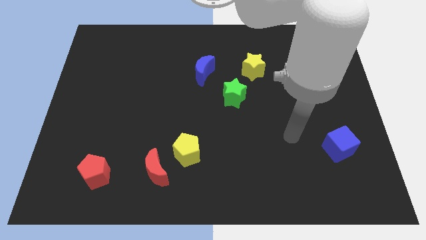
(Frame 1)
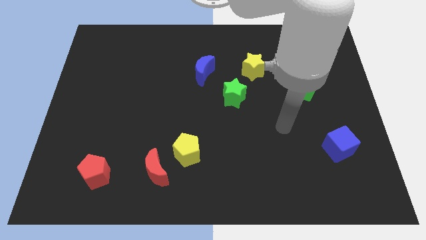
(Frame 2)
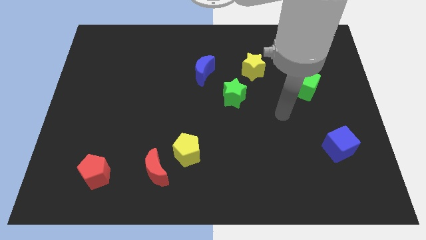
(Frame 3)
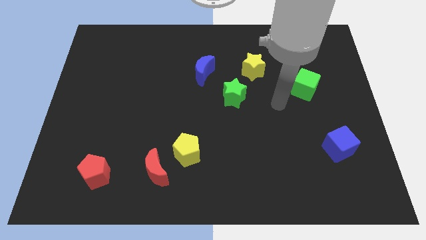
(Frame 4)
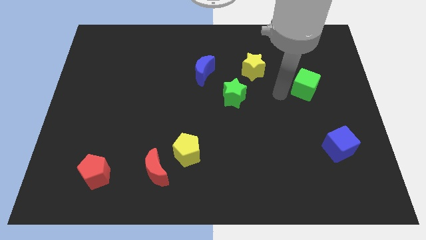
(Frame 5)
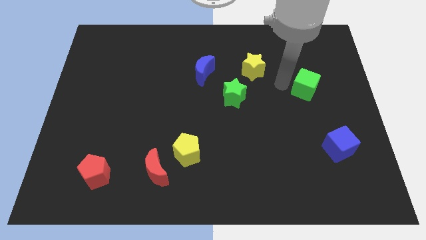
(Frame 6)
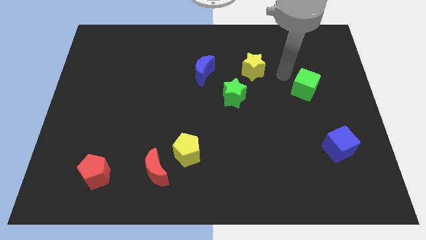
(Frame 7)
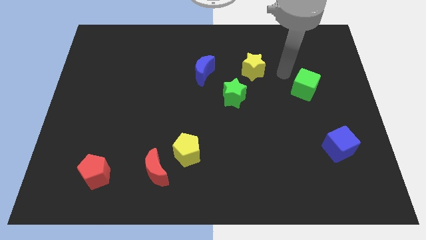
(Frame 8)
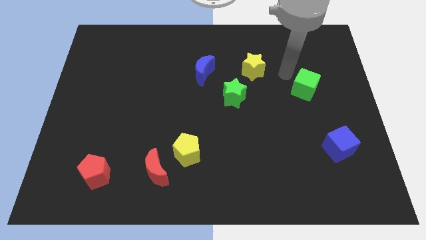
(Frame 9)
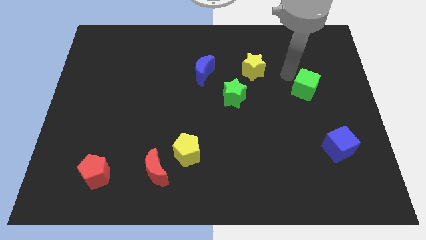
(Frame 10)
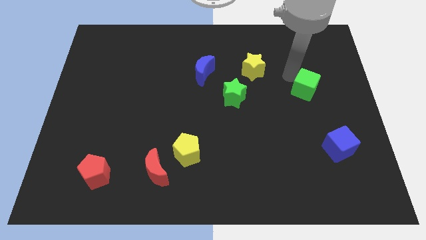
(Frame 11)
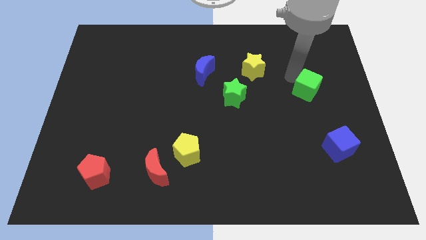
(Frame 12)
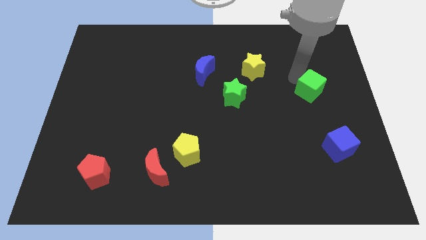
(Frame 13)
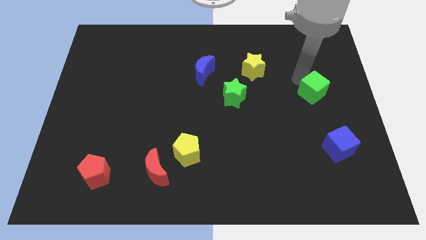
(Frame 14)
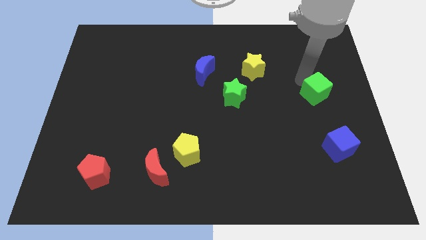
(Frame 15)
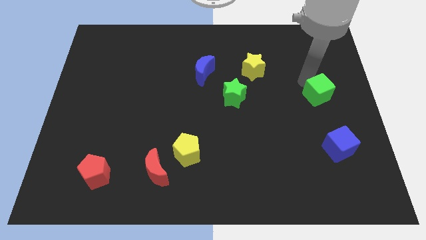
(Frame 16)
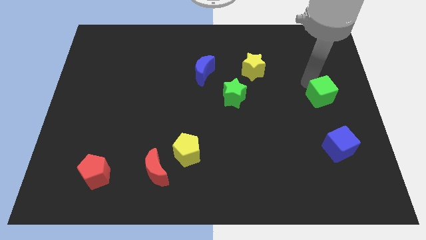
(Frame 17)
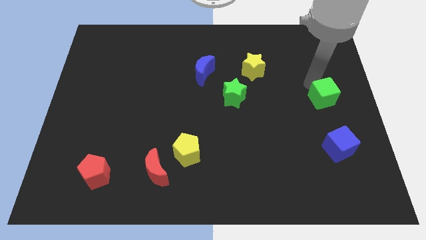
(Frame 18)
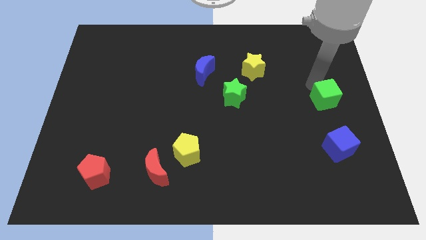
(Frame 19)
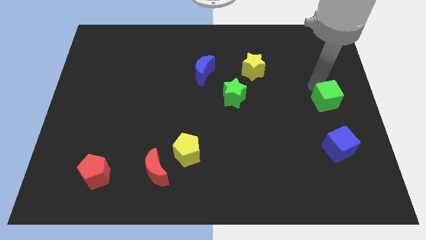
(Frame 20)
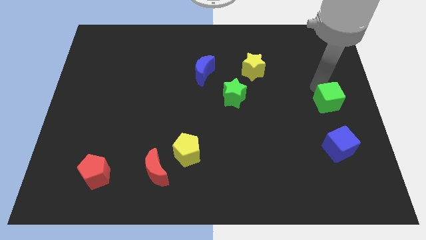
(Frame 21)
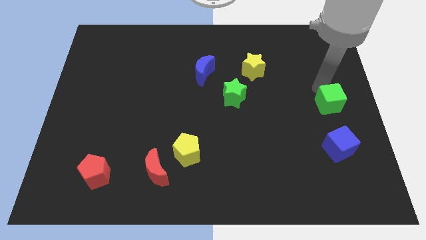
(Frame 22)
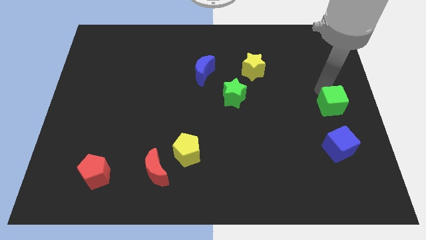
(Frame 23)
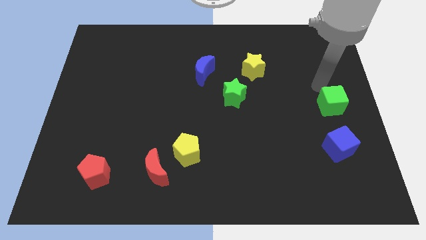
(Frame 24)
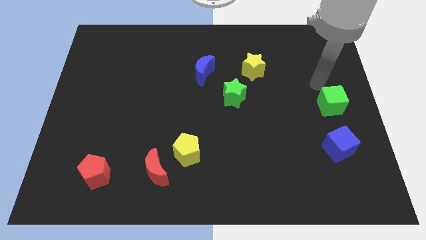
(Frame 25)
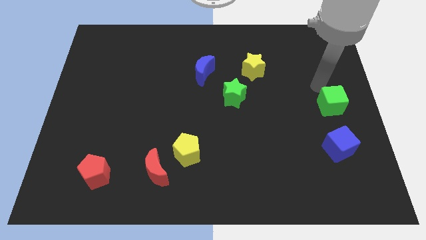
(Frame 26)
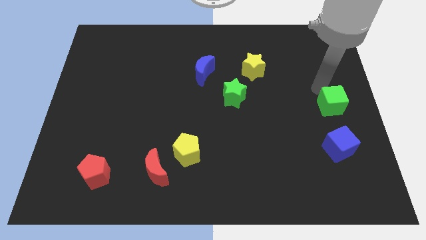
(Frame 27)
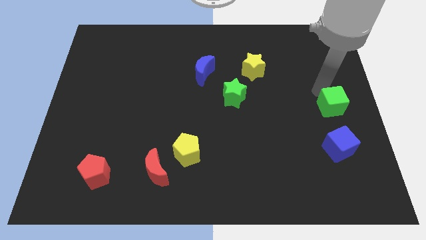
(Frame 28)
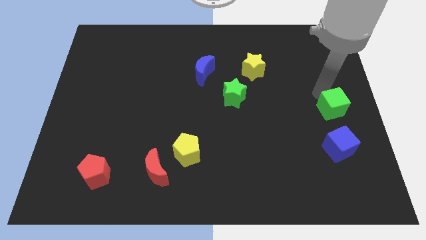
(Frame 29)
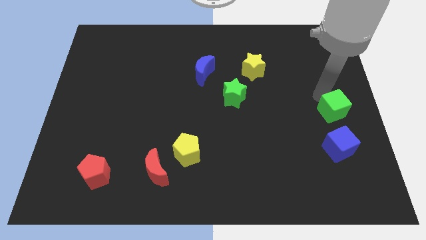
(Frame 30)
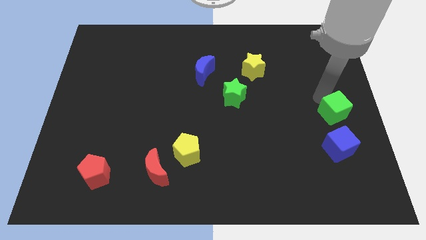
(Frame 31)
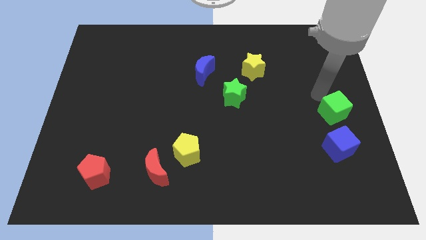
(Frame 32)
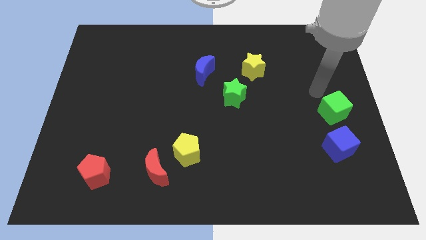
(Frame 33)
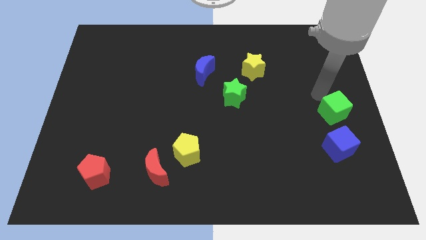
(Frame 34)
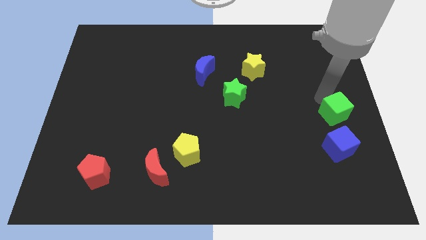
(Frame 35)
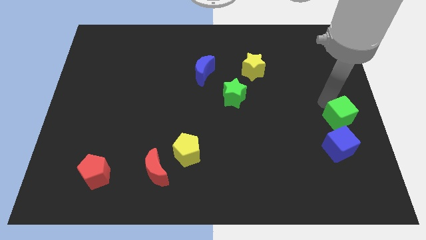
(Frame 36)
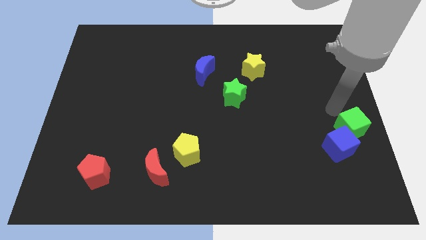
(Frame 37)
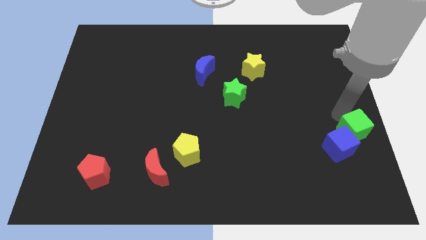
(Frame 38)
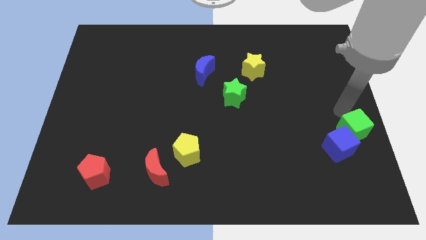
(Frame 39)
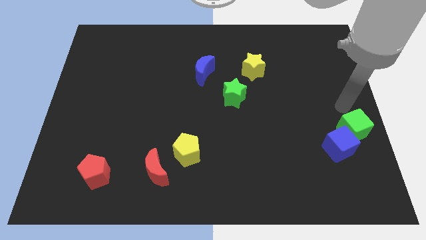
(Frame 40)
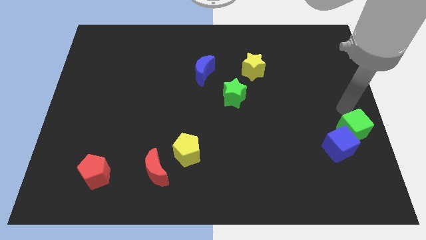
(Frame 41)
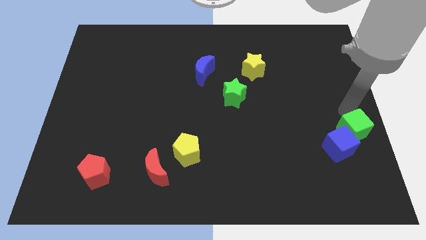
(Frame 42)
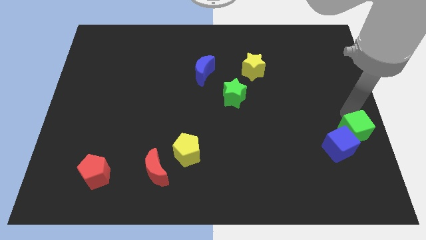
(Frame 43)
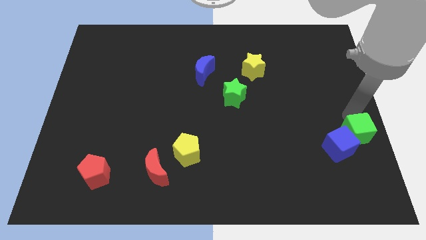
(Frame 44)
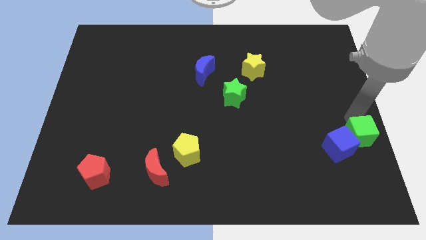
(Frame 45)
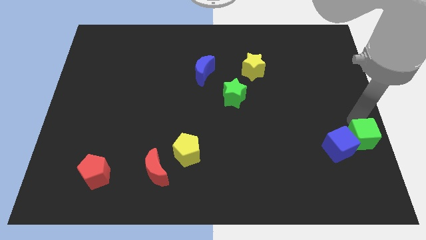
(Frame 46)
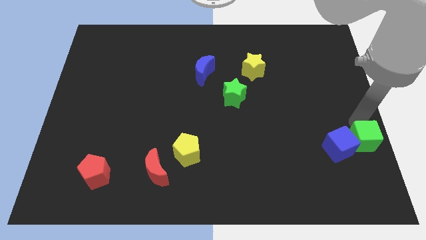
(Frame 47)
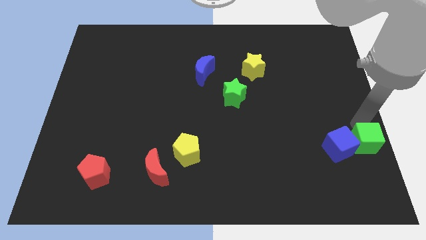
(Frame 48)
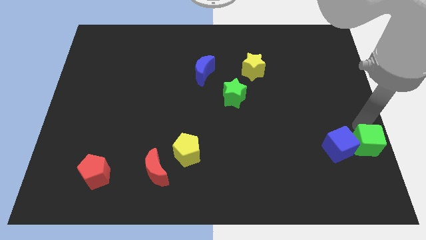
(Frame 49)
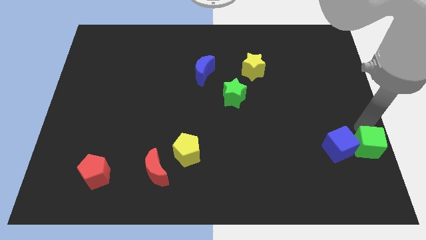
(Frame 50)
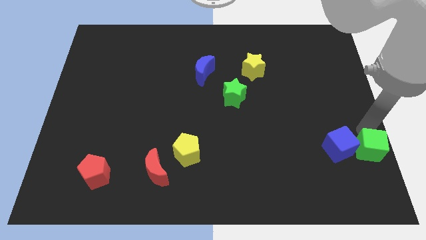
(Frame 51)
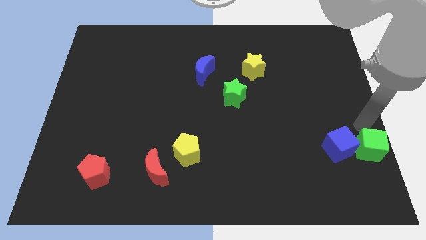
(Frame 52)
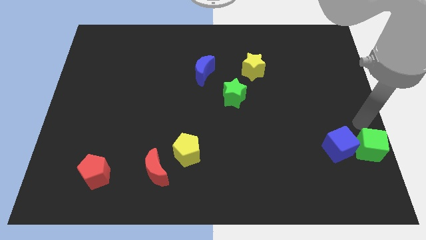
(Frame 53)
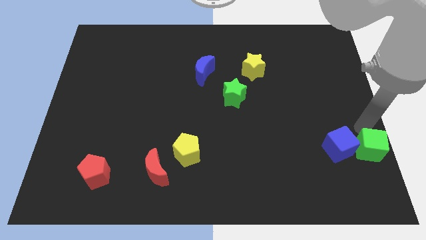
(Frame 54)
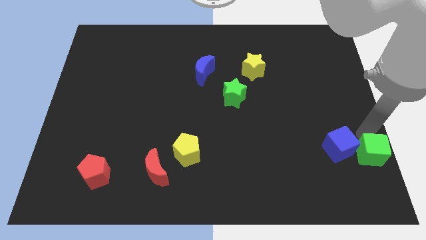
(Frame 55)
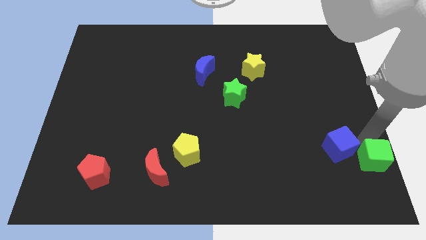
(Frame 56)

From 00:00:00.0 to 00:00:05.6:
put the green cube to the lower right corner

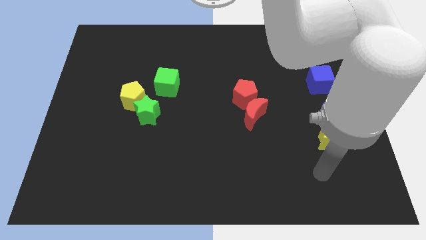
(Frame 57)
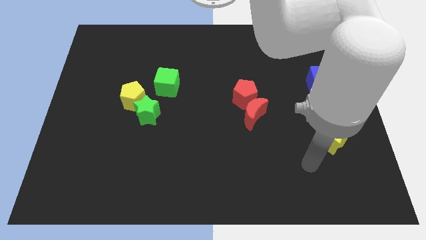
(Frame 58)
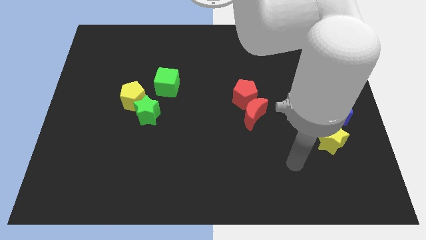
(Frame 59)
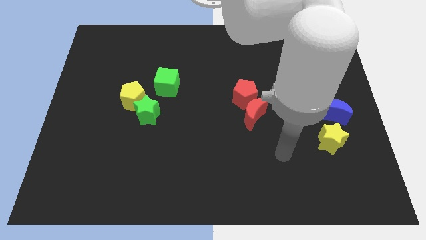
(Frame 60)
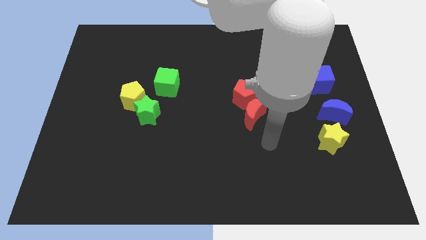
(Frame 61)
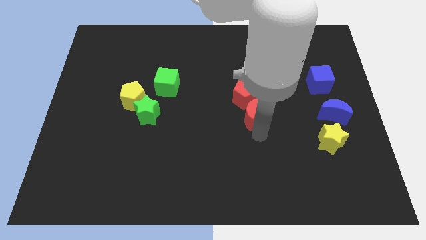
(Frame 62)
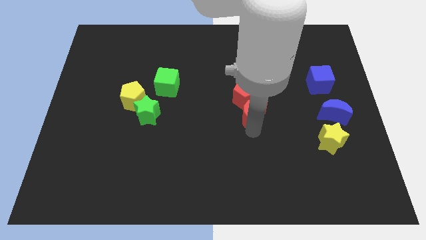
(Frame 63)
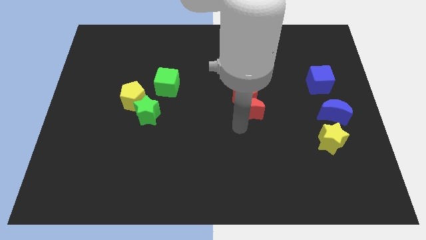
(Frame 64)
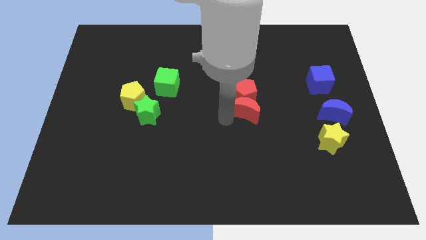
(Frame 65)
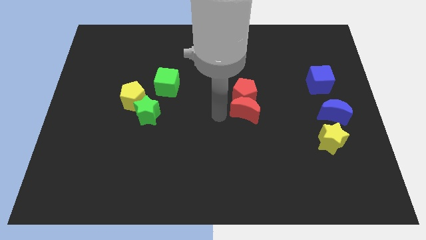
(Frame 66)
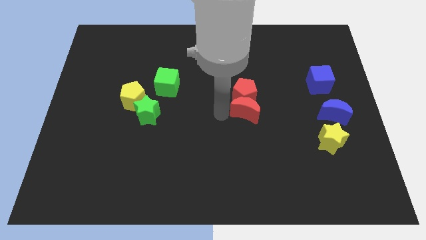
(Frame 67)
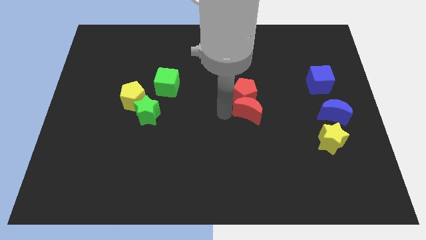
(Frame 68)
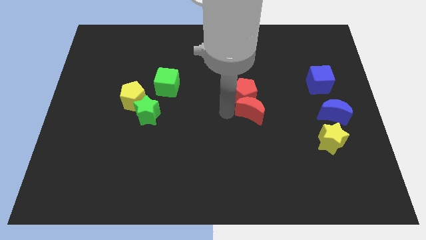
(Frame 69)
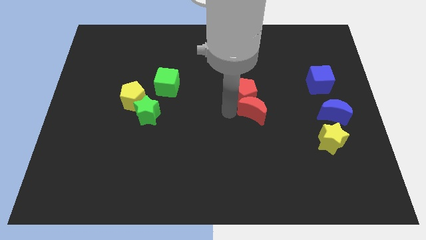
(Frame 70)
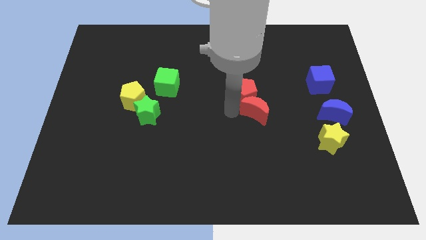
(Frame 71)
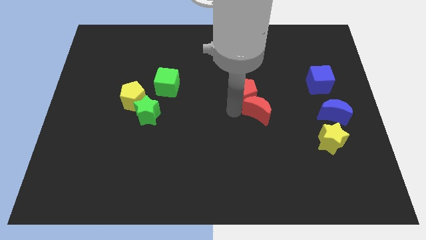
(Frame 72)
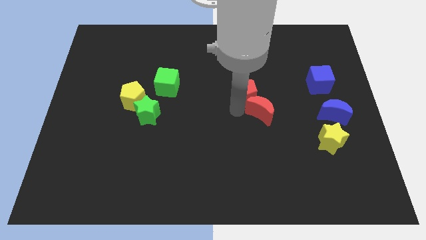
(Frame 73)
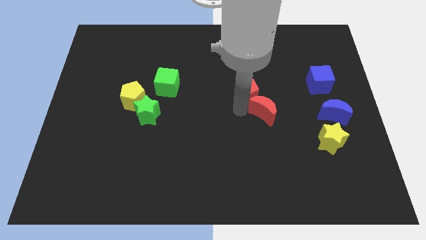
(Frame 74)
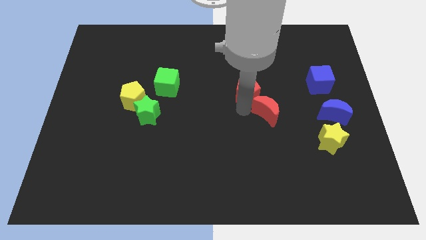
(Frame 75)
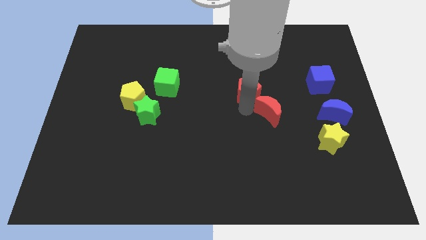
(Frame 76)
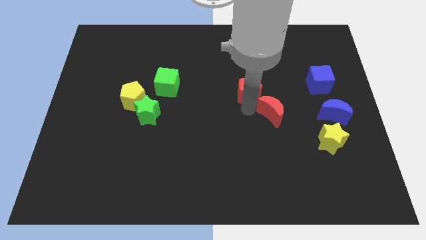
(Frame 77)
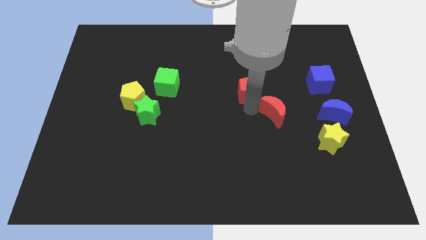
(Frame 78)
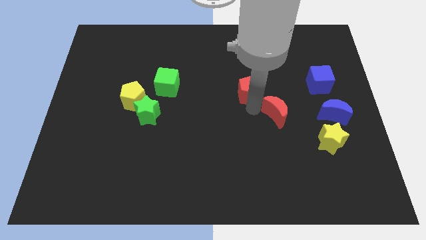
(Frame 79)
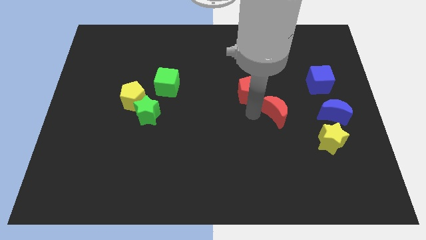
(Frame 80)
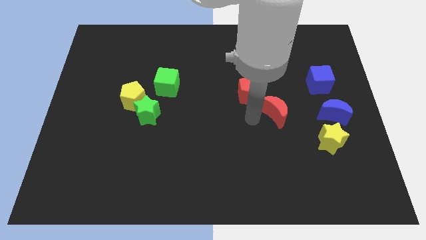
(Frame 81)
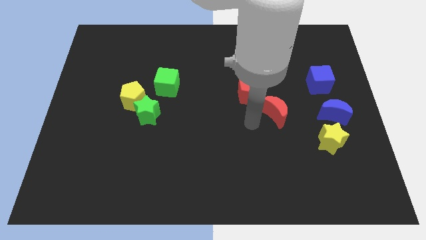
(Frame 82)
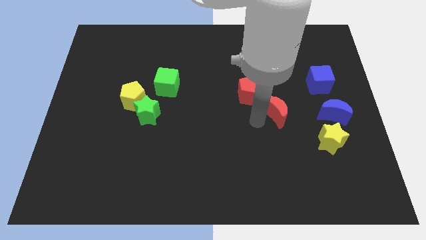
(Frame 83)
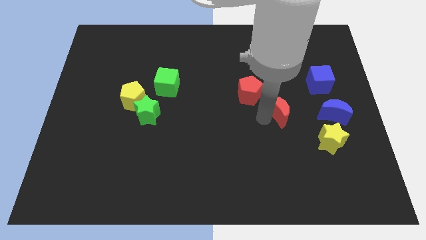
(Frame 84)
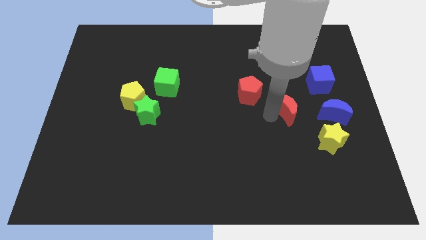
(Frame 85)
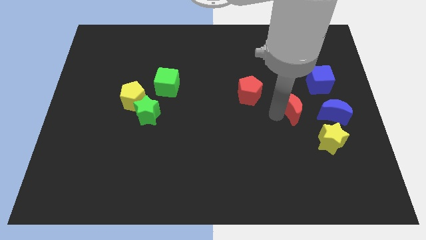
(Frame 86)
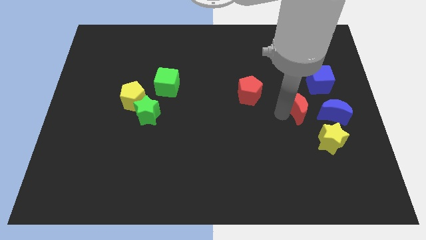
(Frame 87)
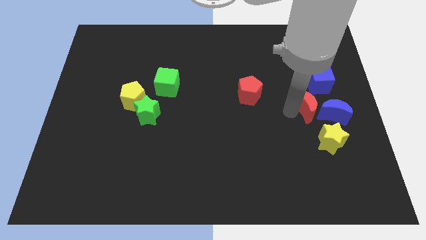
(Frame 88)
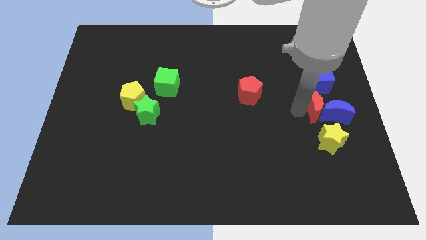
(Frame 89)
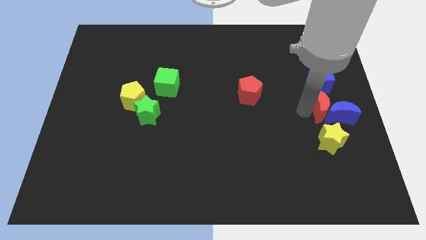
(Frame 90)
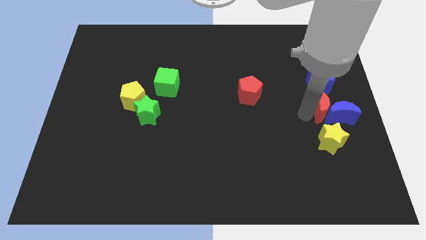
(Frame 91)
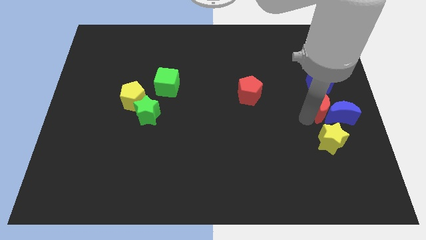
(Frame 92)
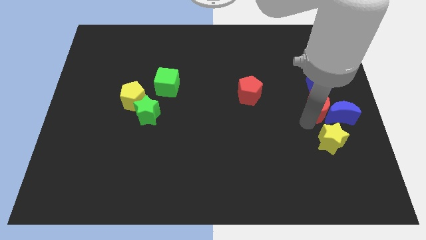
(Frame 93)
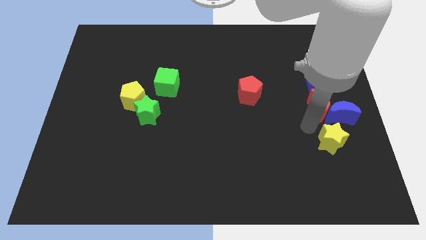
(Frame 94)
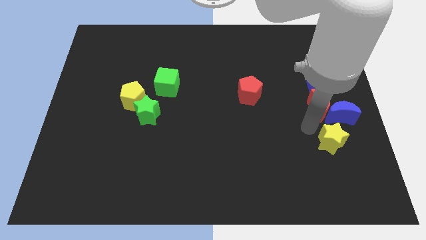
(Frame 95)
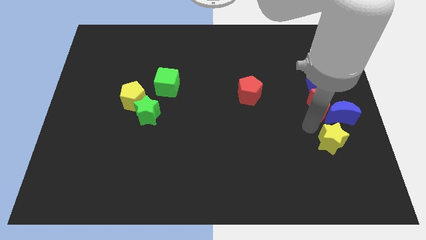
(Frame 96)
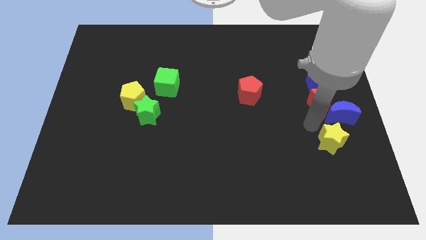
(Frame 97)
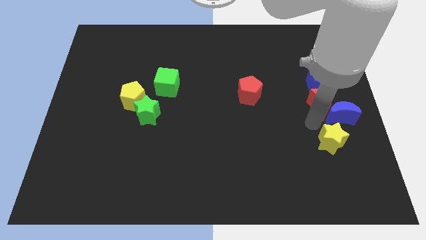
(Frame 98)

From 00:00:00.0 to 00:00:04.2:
slide the red moon to the center right
